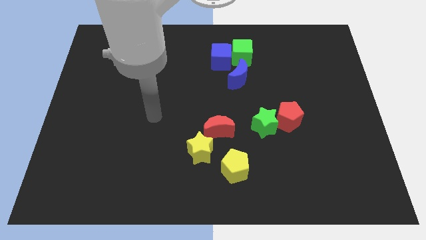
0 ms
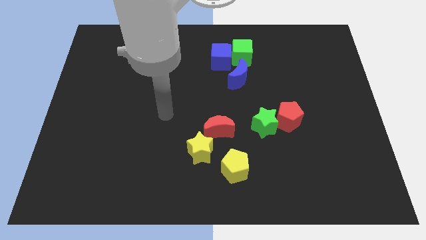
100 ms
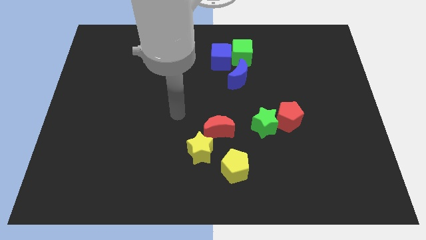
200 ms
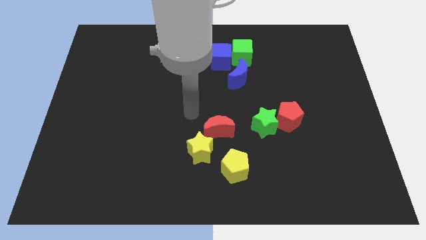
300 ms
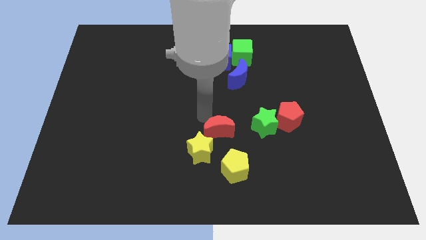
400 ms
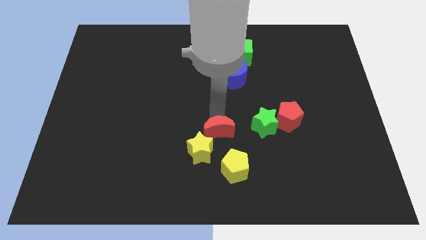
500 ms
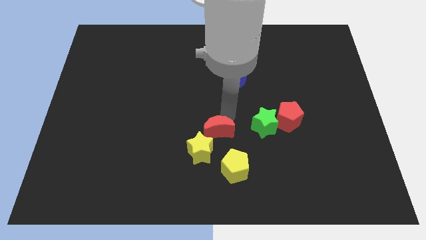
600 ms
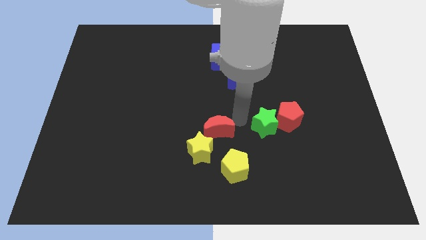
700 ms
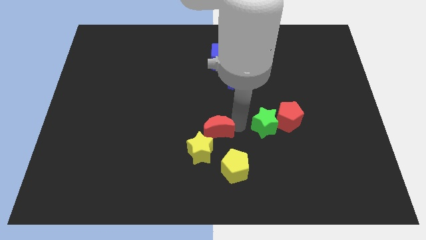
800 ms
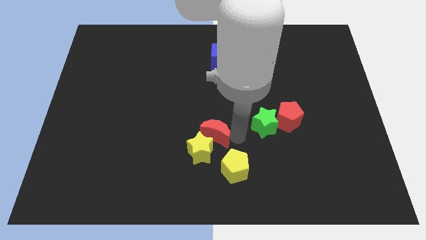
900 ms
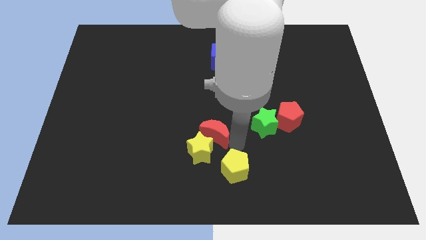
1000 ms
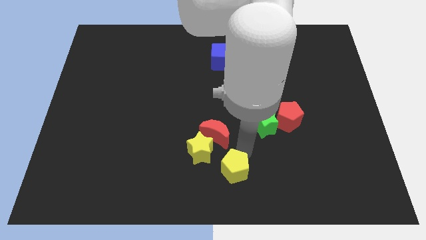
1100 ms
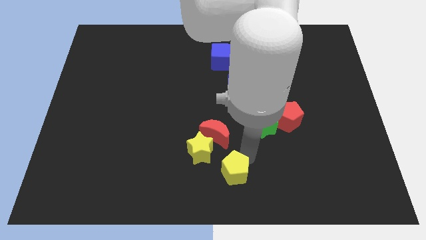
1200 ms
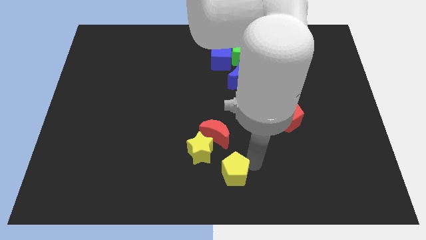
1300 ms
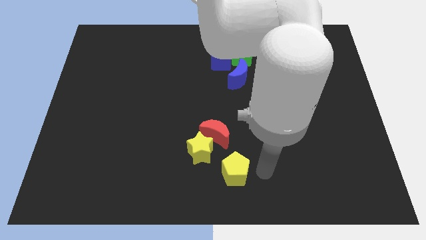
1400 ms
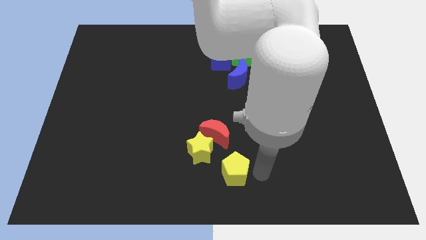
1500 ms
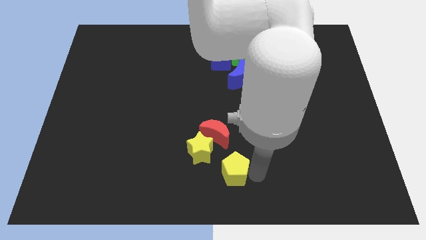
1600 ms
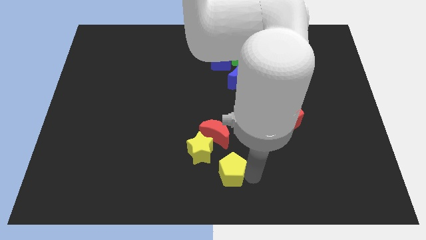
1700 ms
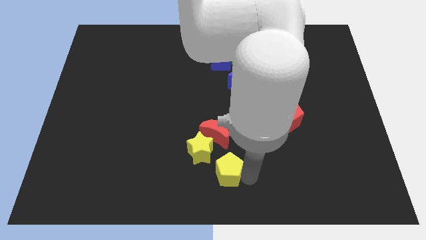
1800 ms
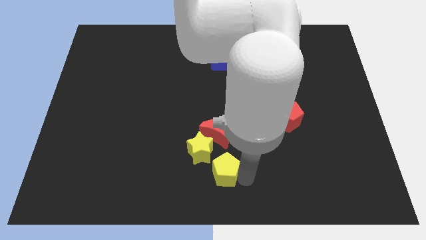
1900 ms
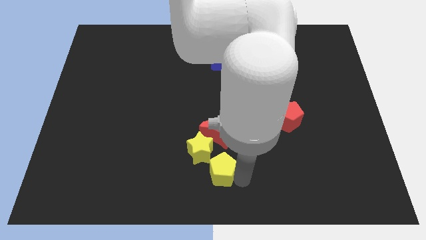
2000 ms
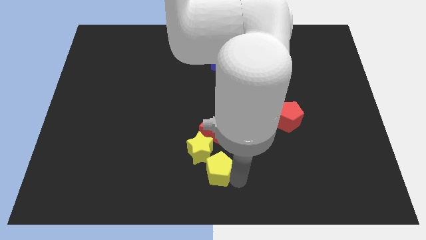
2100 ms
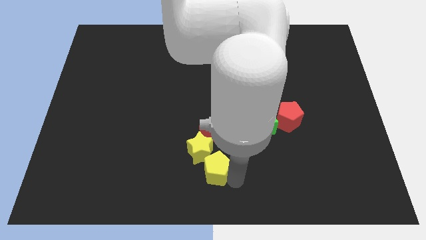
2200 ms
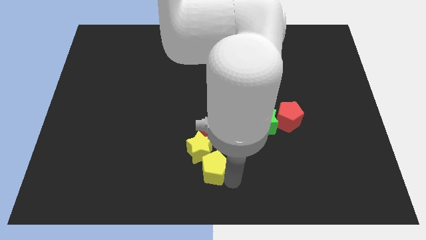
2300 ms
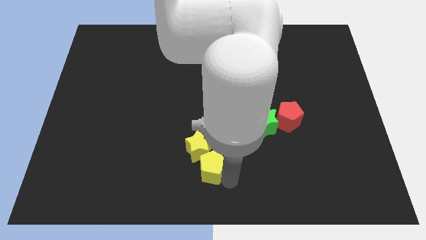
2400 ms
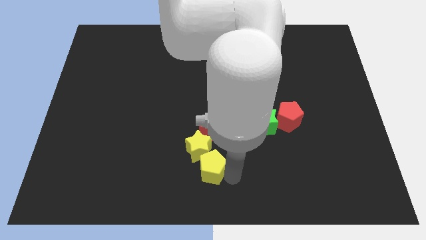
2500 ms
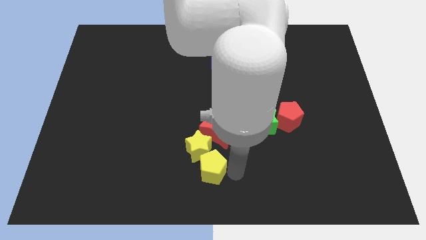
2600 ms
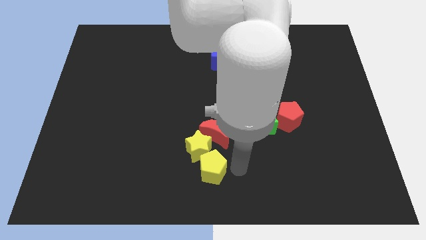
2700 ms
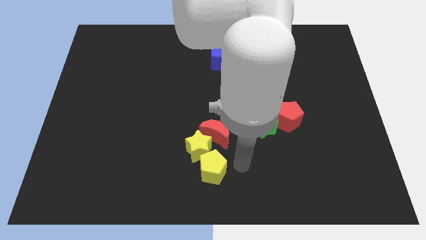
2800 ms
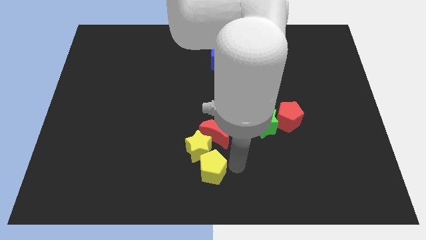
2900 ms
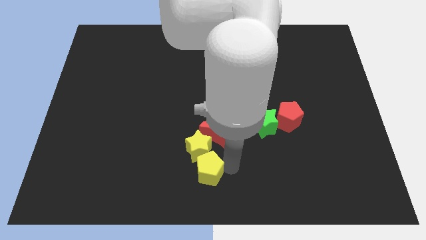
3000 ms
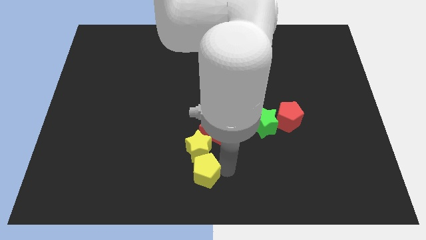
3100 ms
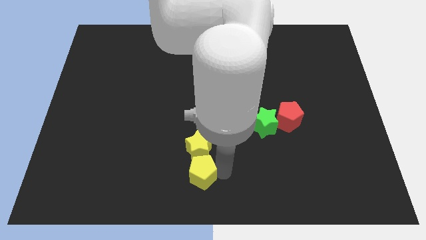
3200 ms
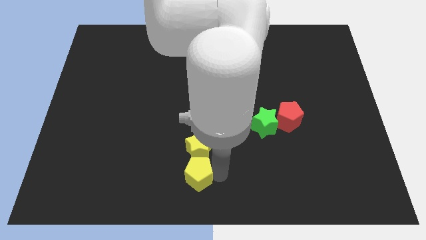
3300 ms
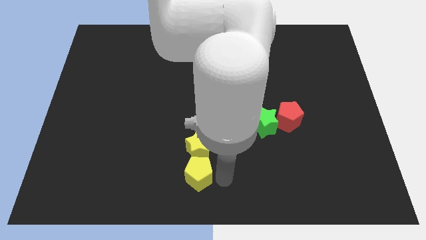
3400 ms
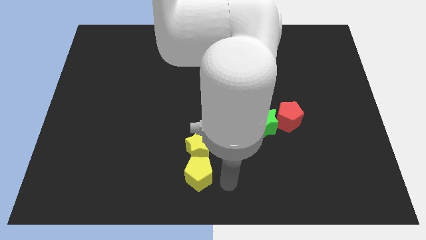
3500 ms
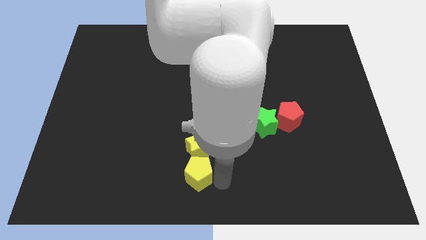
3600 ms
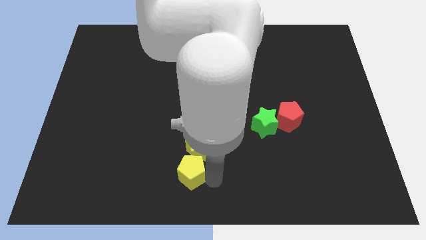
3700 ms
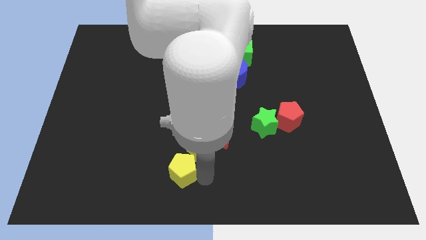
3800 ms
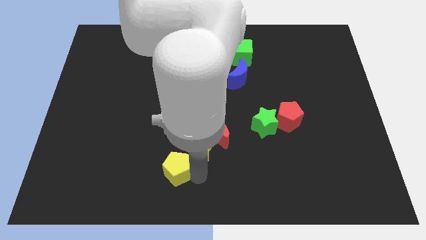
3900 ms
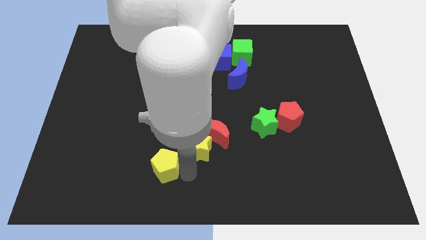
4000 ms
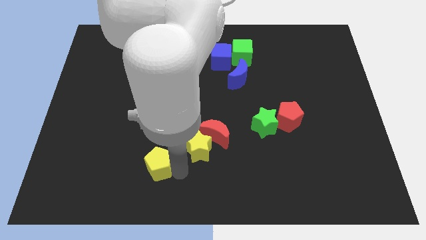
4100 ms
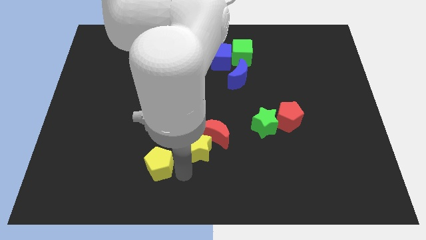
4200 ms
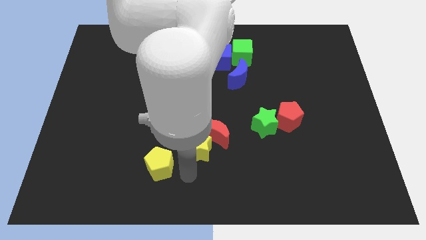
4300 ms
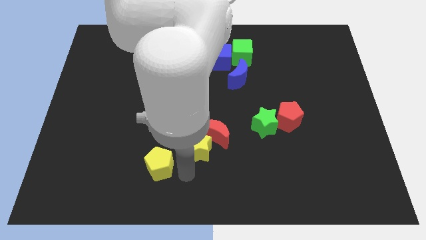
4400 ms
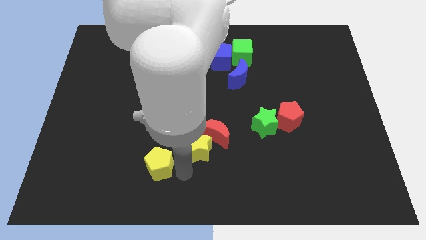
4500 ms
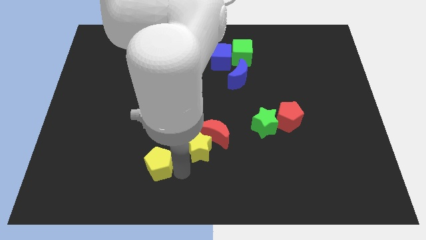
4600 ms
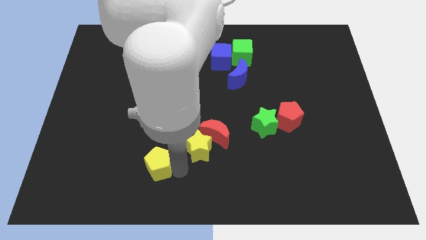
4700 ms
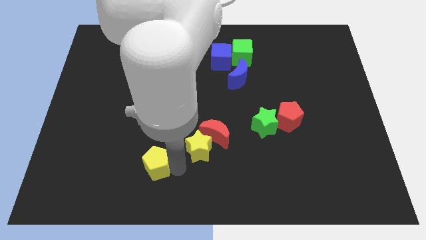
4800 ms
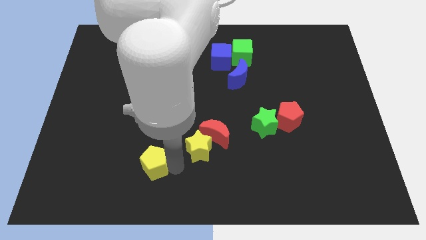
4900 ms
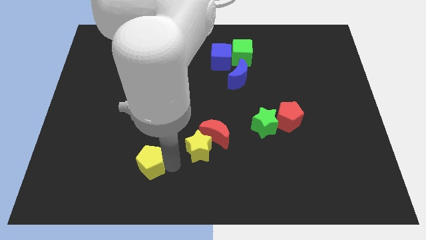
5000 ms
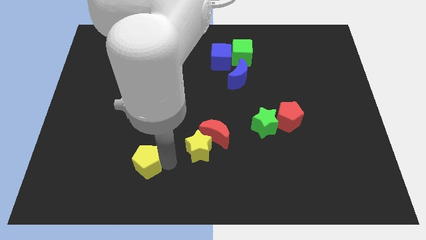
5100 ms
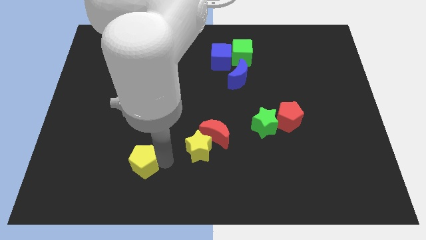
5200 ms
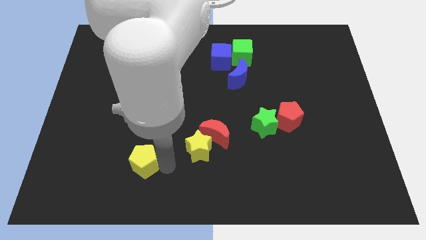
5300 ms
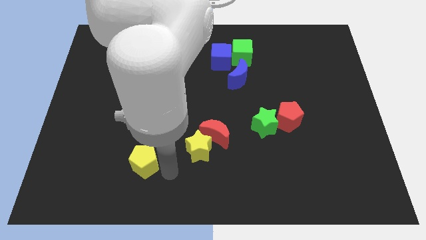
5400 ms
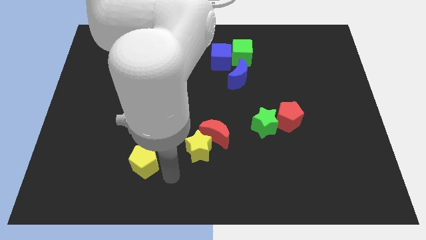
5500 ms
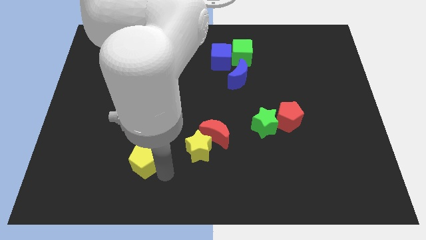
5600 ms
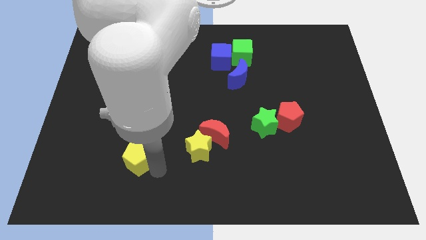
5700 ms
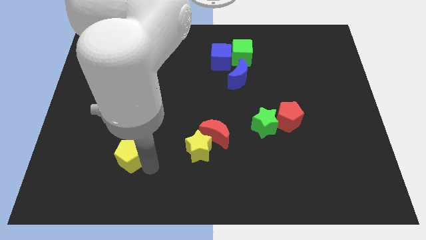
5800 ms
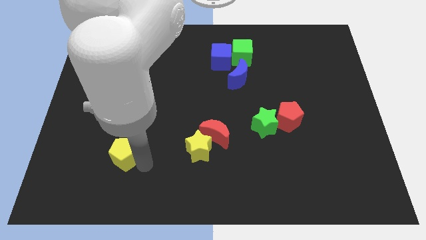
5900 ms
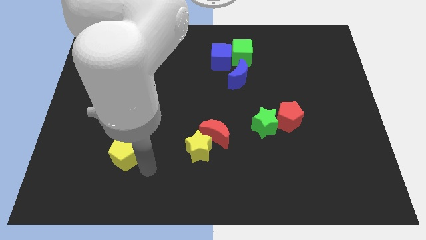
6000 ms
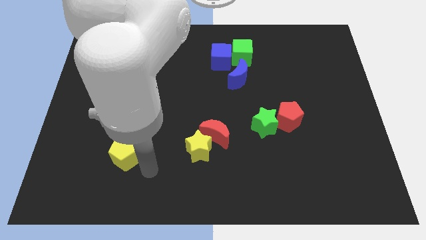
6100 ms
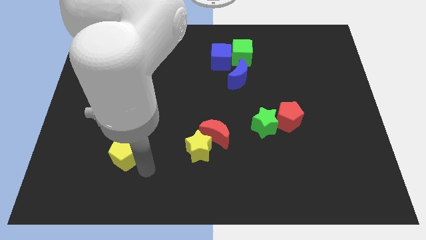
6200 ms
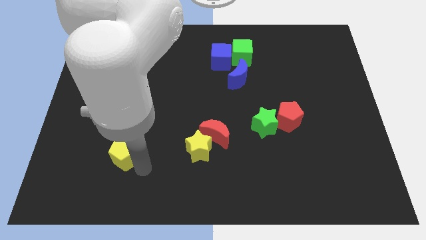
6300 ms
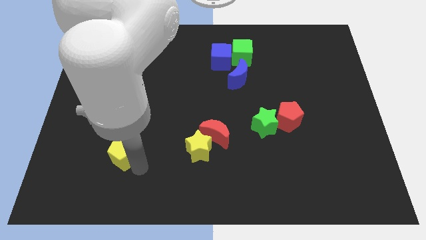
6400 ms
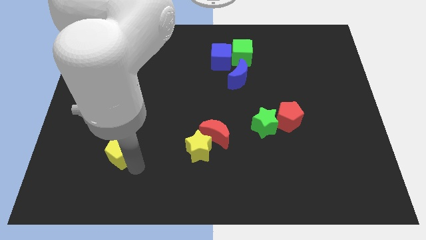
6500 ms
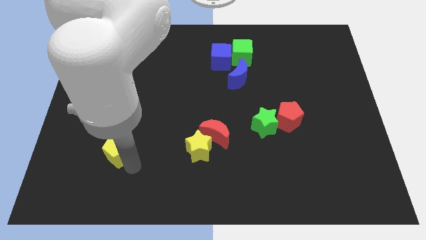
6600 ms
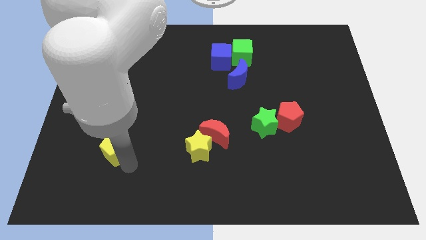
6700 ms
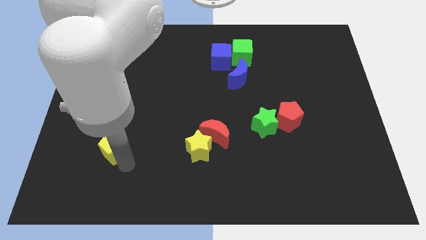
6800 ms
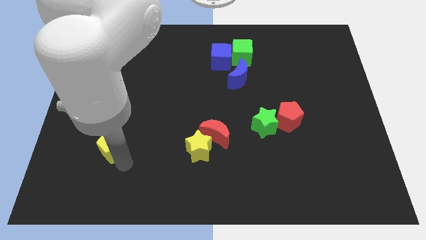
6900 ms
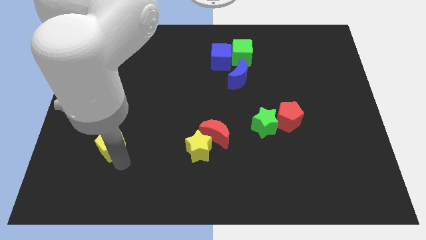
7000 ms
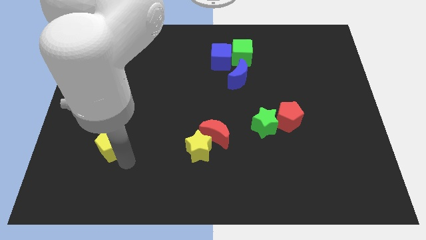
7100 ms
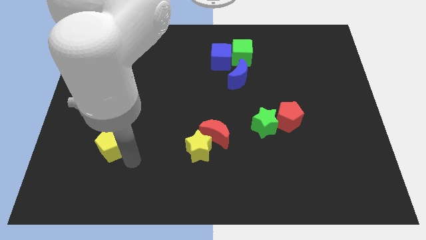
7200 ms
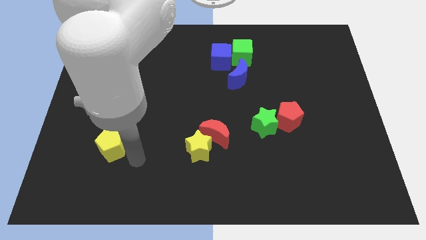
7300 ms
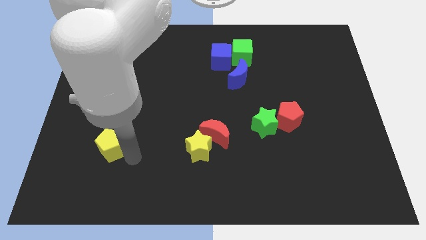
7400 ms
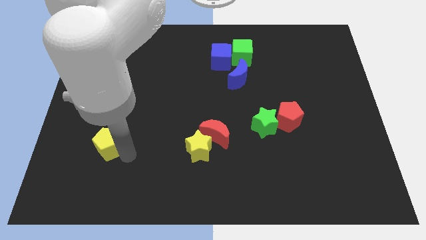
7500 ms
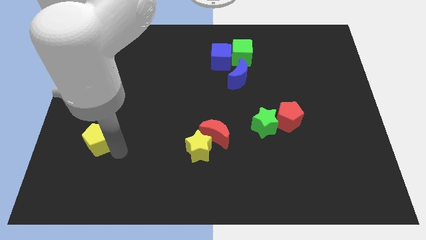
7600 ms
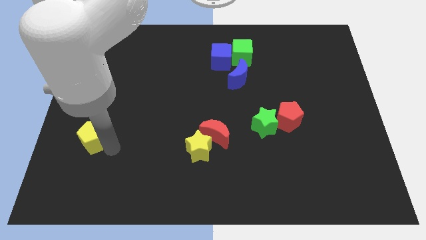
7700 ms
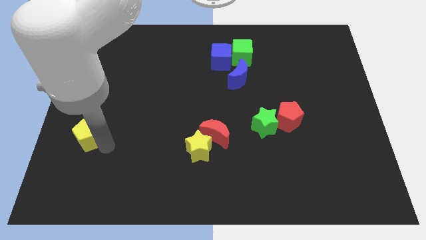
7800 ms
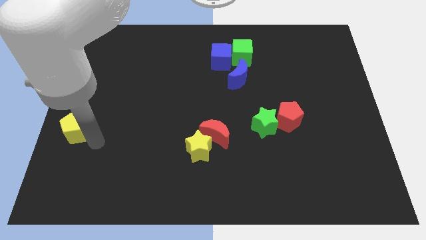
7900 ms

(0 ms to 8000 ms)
put the yellow pentagon to the center left
